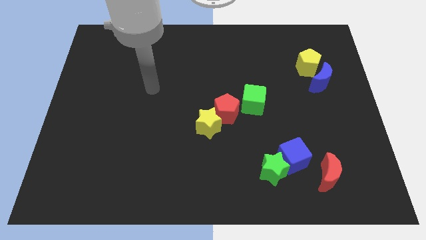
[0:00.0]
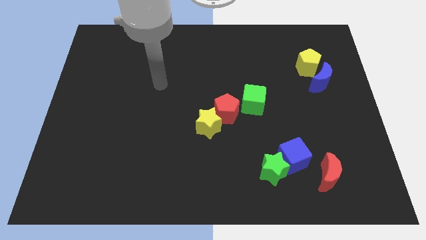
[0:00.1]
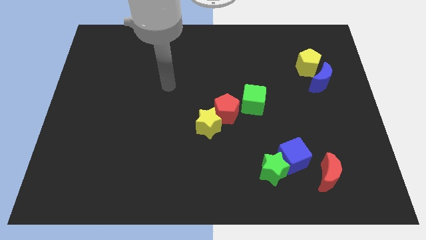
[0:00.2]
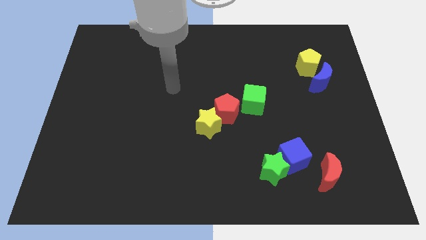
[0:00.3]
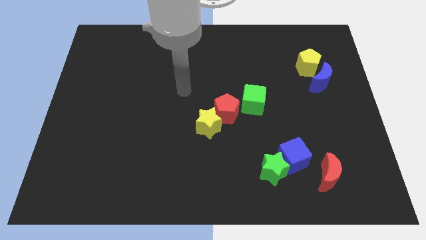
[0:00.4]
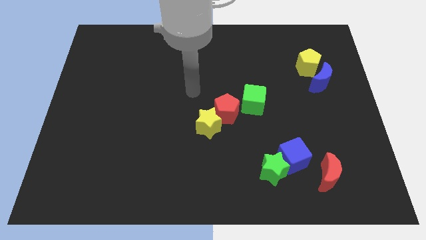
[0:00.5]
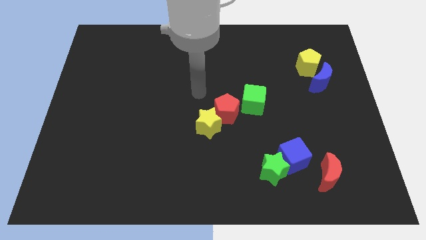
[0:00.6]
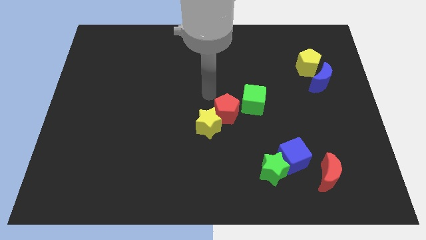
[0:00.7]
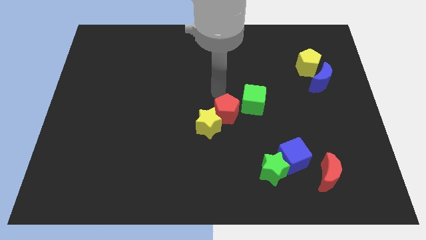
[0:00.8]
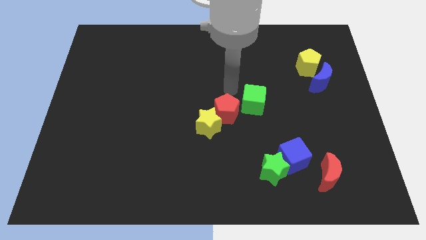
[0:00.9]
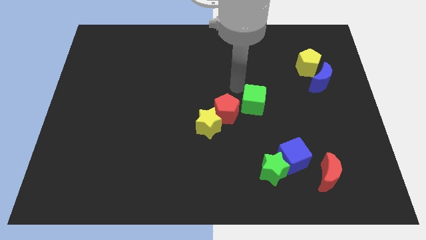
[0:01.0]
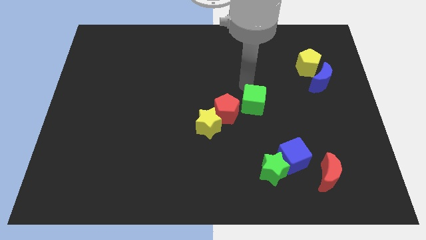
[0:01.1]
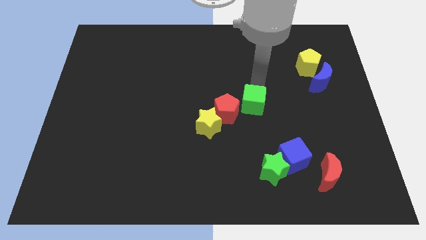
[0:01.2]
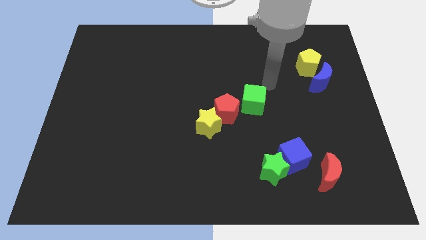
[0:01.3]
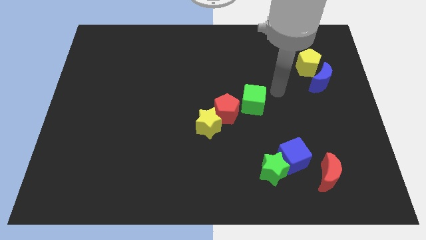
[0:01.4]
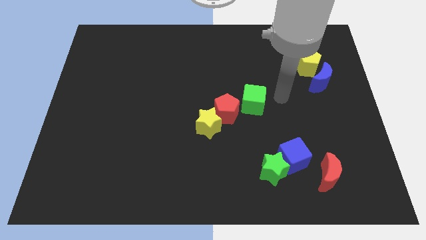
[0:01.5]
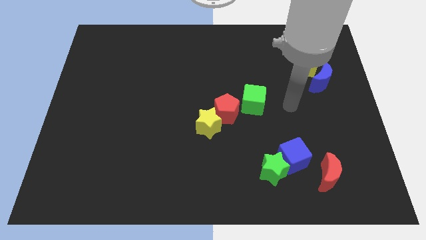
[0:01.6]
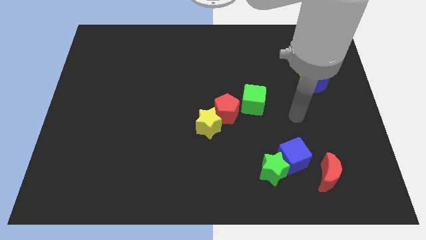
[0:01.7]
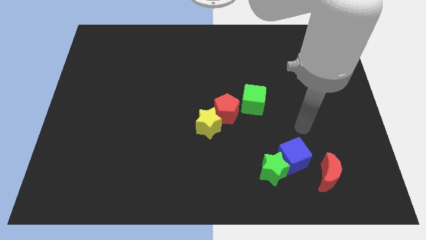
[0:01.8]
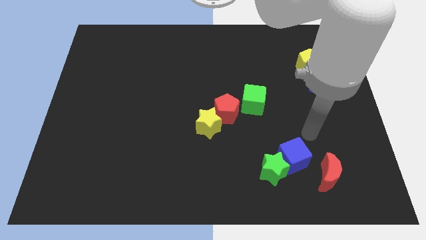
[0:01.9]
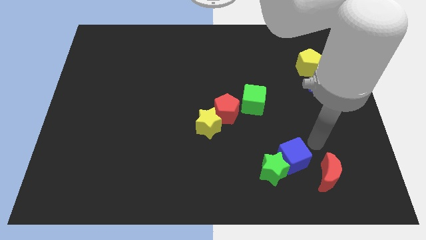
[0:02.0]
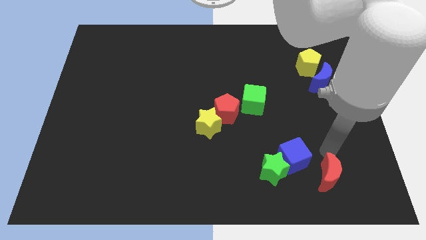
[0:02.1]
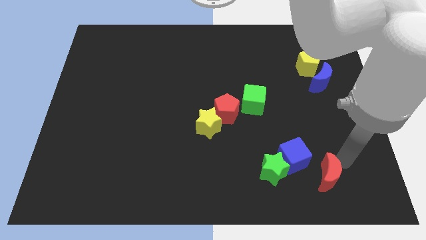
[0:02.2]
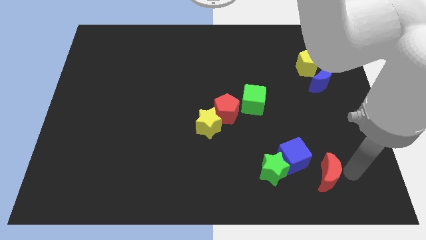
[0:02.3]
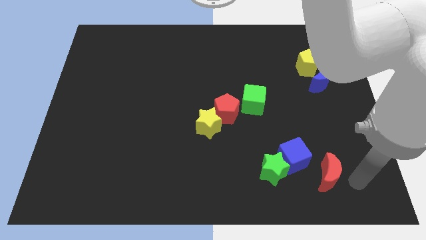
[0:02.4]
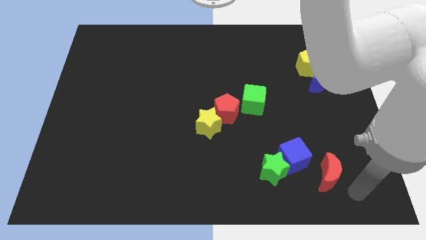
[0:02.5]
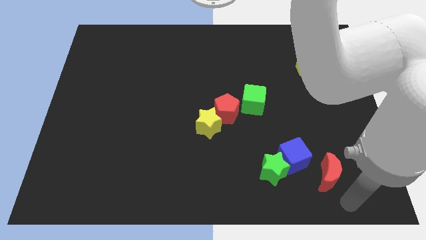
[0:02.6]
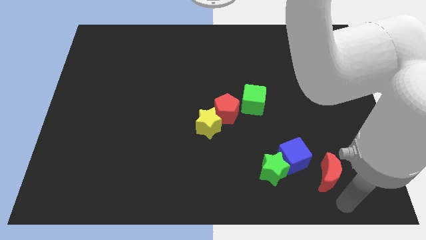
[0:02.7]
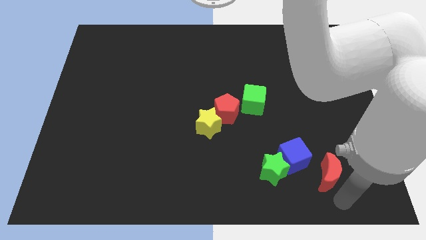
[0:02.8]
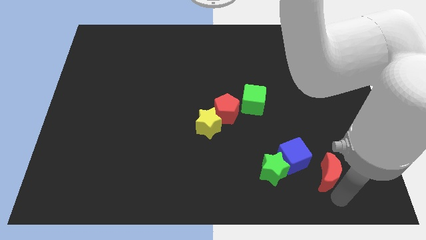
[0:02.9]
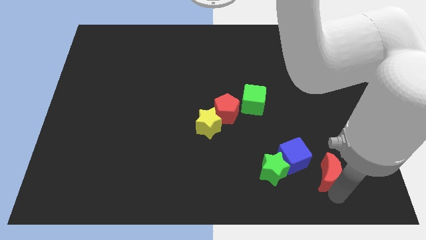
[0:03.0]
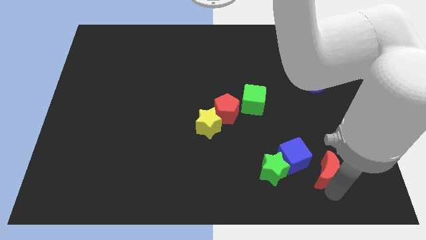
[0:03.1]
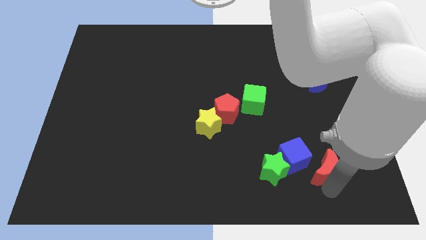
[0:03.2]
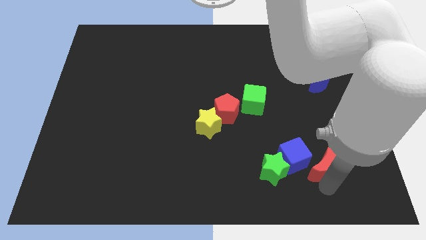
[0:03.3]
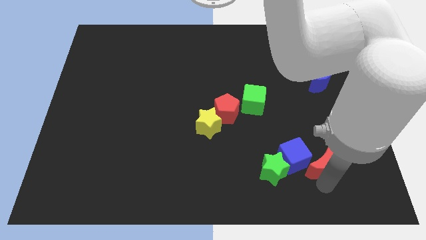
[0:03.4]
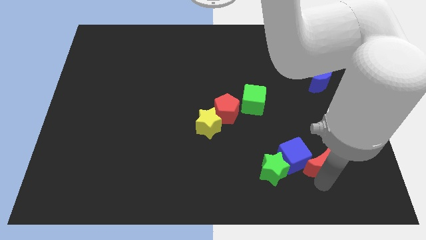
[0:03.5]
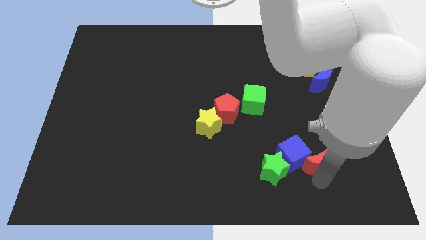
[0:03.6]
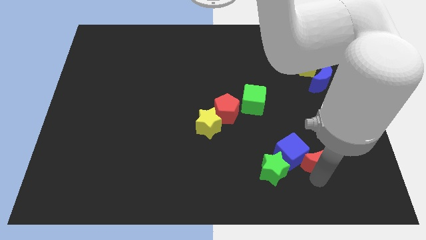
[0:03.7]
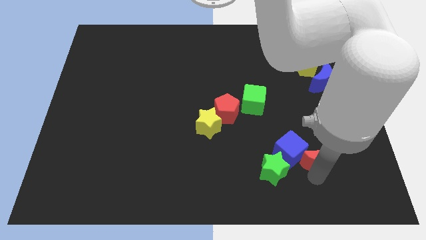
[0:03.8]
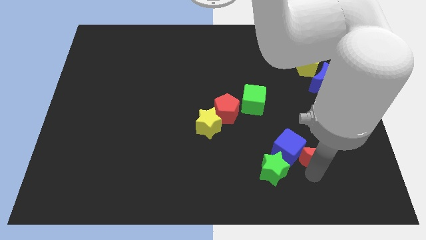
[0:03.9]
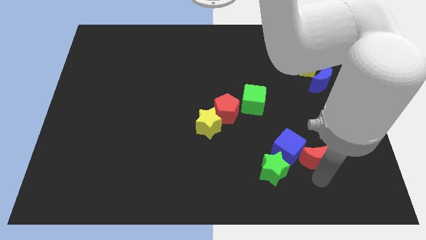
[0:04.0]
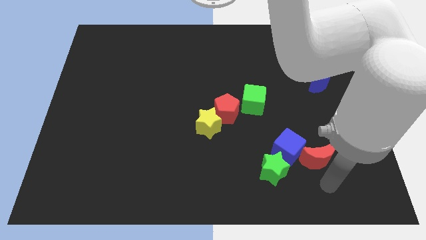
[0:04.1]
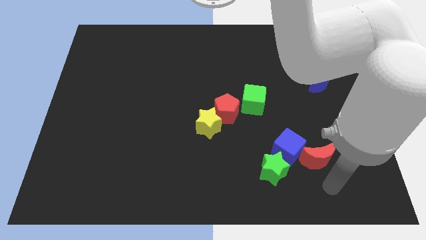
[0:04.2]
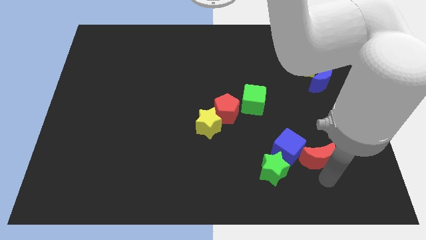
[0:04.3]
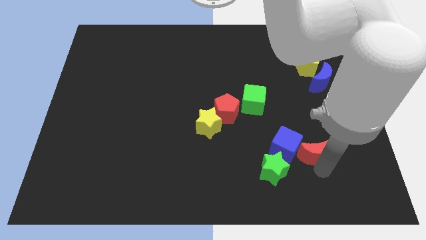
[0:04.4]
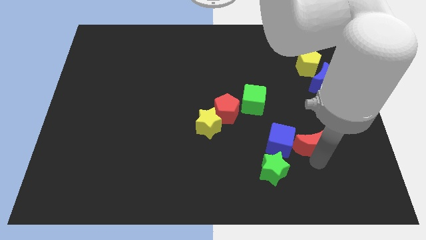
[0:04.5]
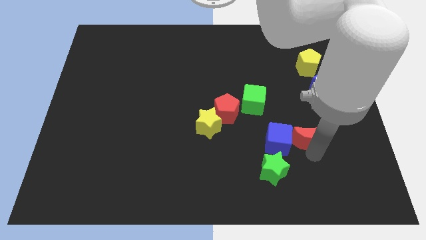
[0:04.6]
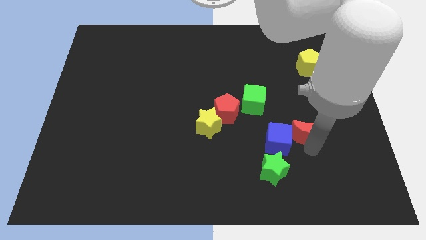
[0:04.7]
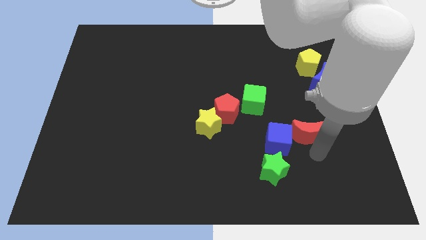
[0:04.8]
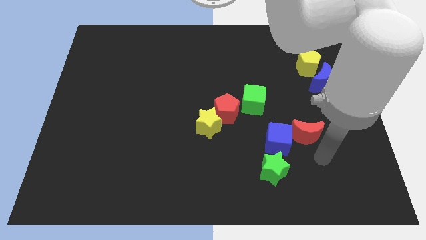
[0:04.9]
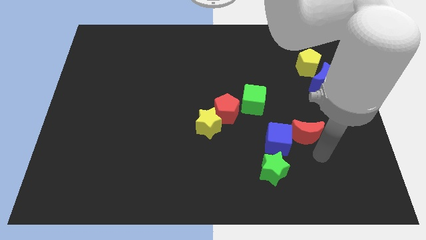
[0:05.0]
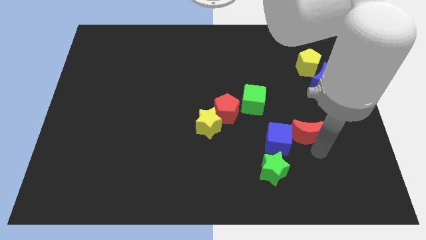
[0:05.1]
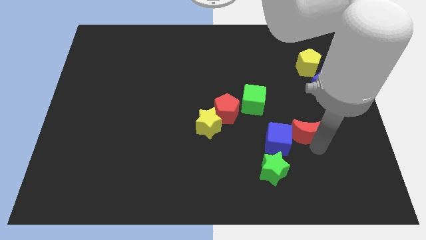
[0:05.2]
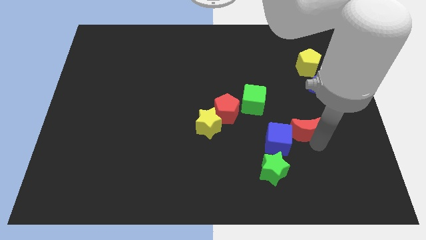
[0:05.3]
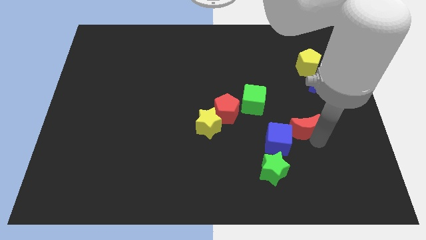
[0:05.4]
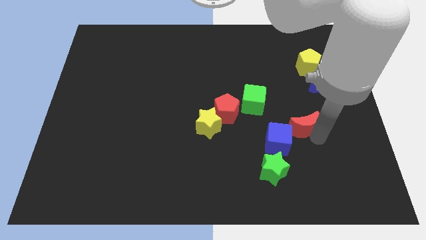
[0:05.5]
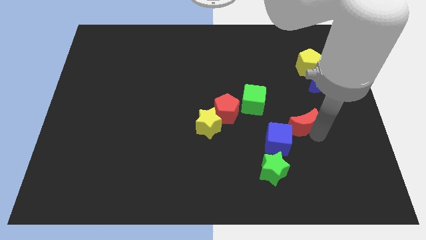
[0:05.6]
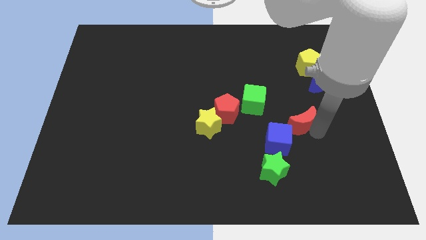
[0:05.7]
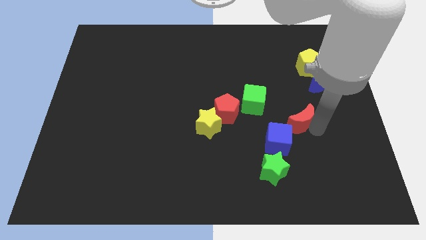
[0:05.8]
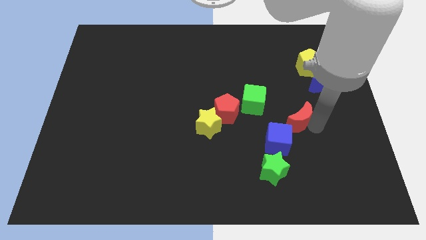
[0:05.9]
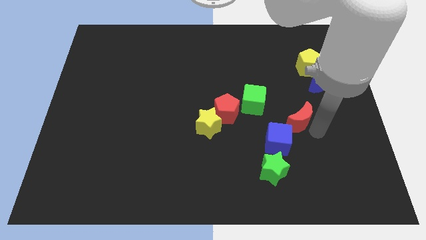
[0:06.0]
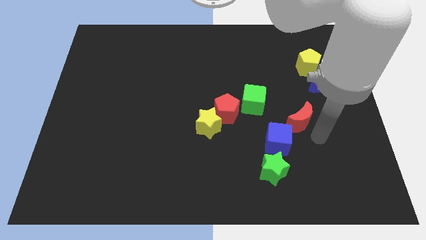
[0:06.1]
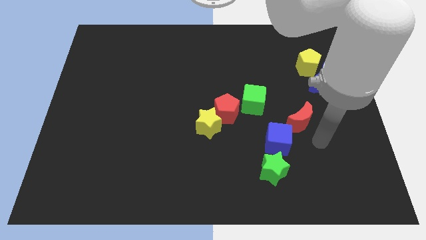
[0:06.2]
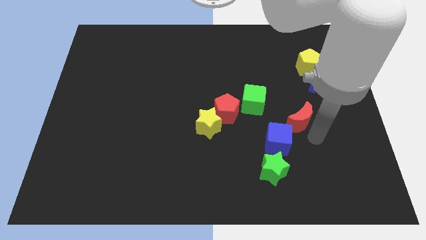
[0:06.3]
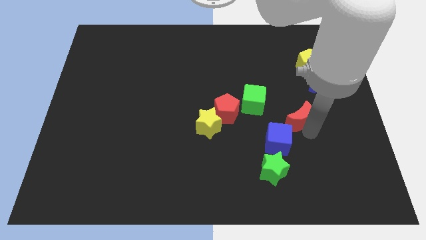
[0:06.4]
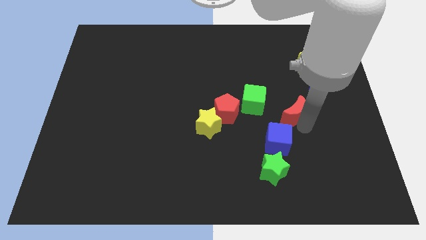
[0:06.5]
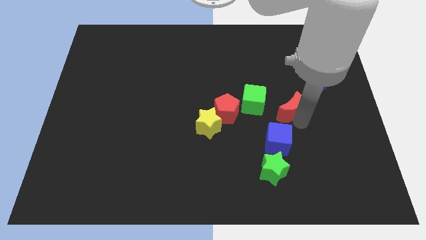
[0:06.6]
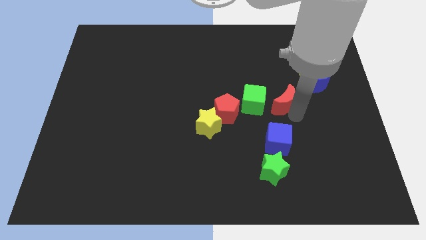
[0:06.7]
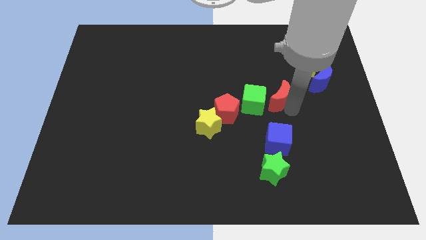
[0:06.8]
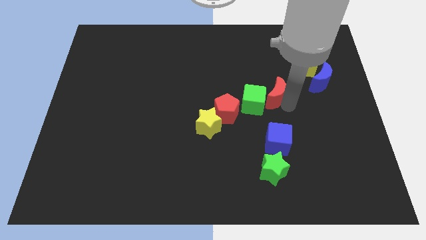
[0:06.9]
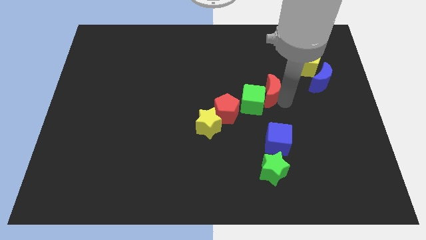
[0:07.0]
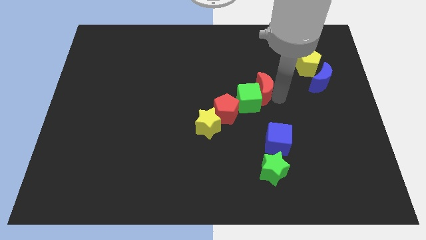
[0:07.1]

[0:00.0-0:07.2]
slide the red moon upwards and to the left

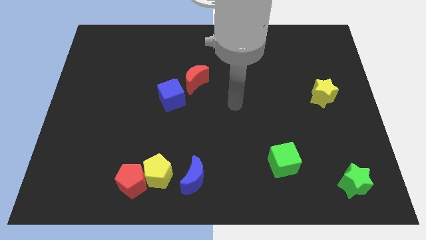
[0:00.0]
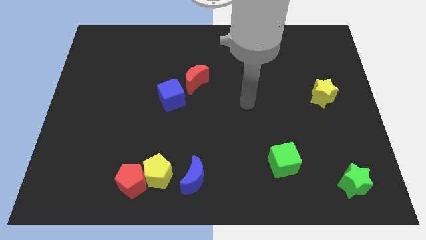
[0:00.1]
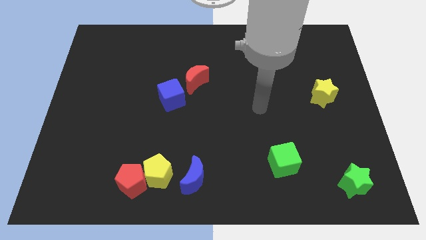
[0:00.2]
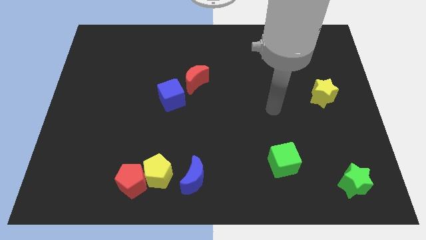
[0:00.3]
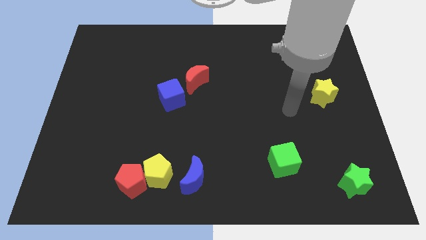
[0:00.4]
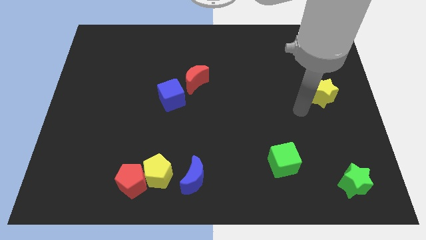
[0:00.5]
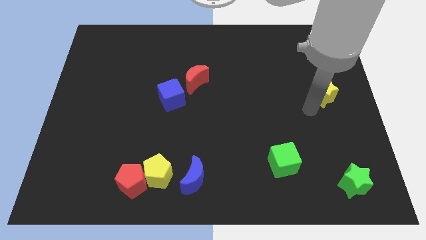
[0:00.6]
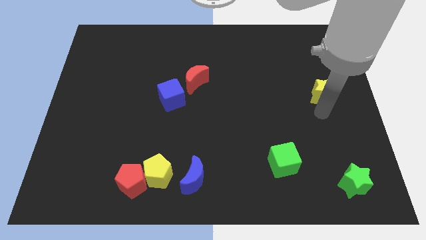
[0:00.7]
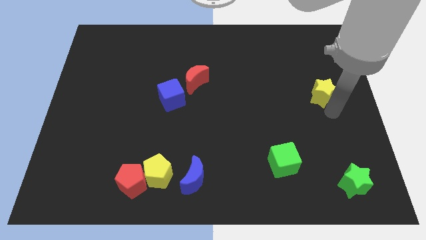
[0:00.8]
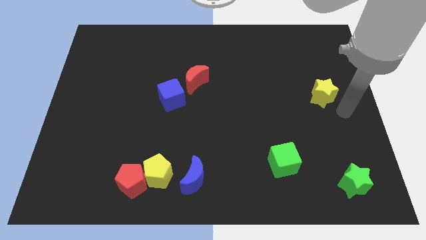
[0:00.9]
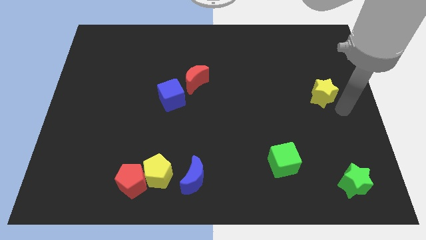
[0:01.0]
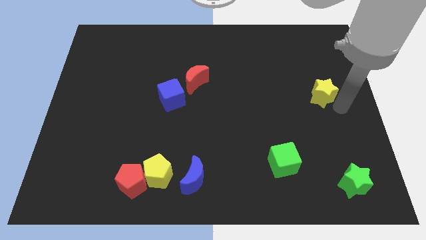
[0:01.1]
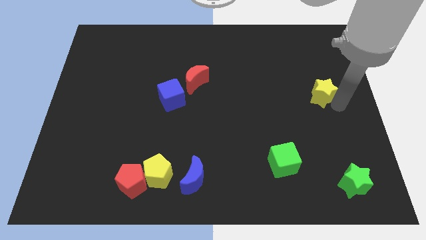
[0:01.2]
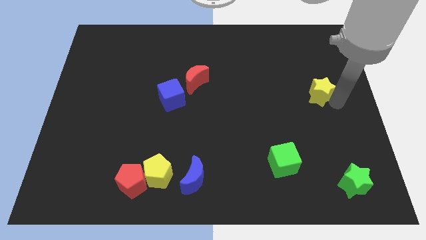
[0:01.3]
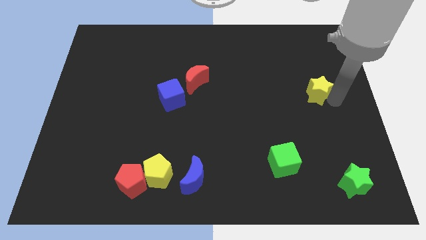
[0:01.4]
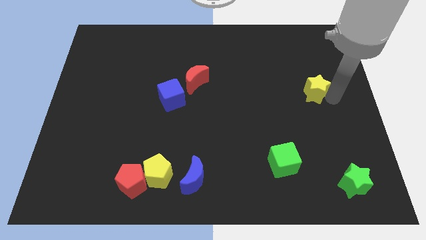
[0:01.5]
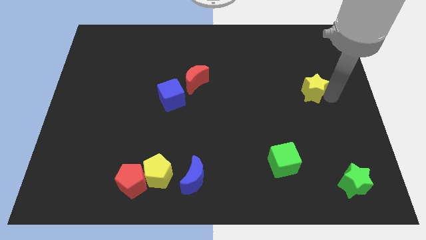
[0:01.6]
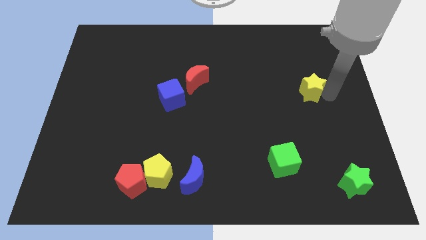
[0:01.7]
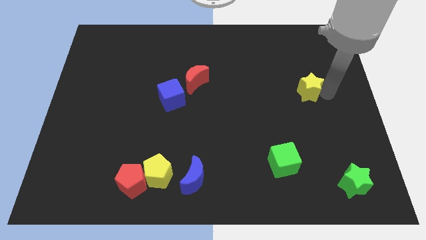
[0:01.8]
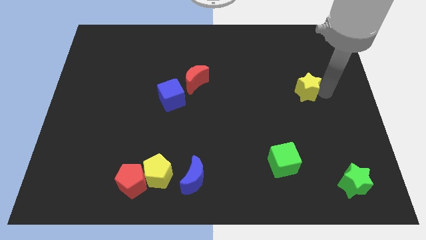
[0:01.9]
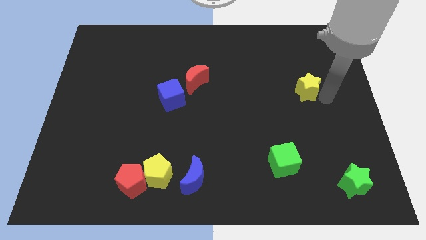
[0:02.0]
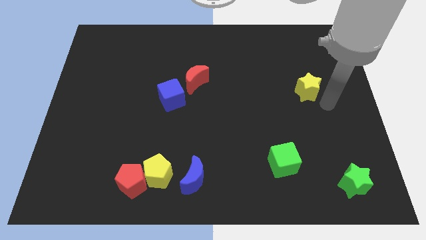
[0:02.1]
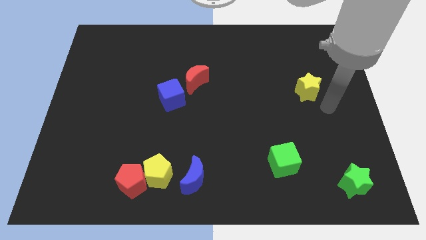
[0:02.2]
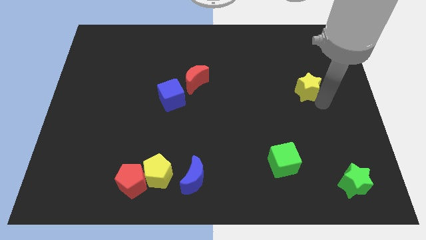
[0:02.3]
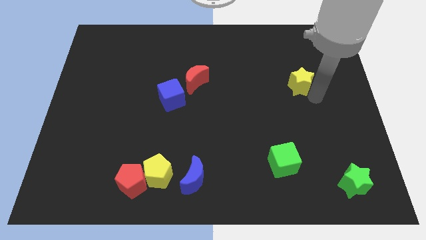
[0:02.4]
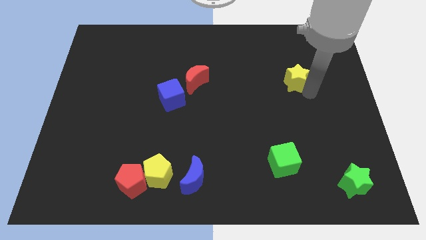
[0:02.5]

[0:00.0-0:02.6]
slightly move the yellow star upwards and to the left
